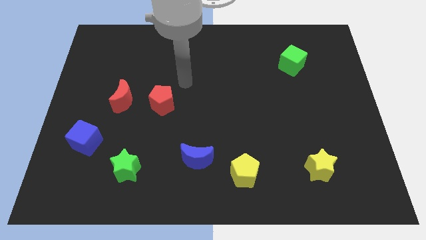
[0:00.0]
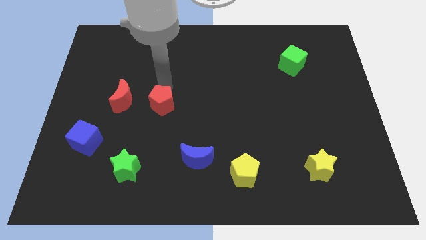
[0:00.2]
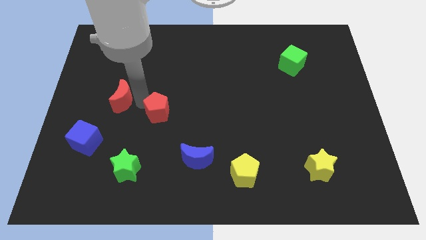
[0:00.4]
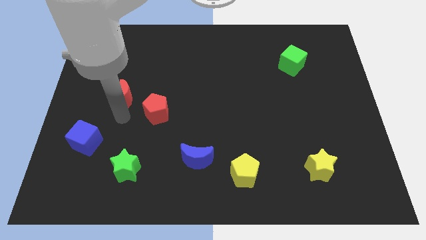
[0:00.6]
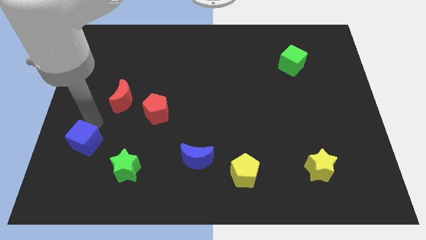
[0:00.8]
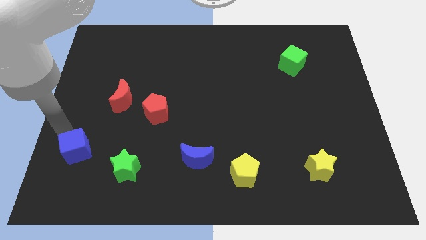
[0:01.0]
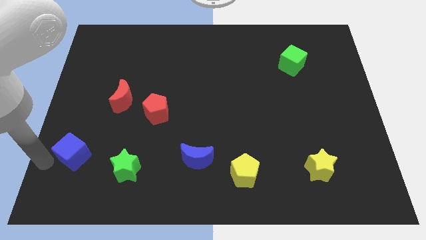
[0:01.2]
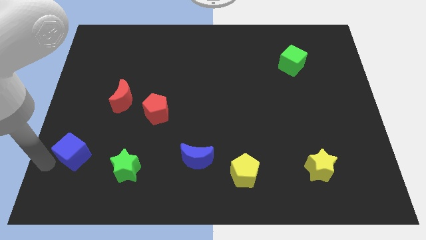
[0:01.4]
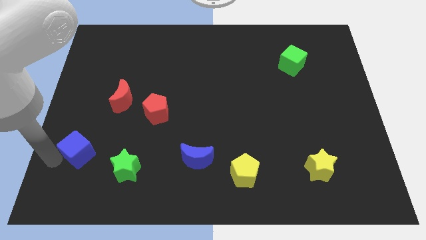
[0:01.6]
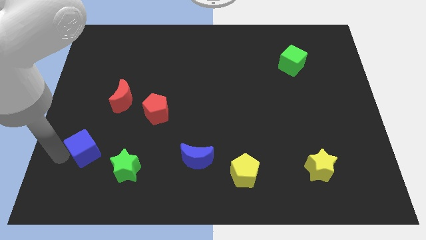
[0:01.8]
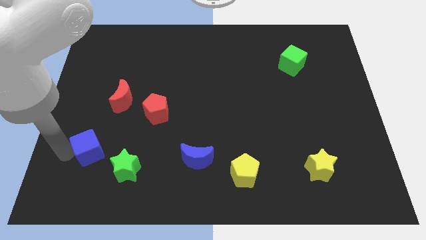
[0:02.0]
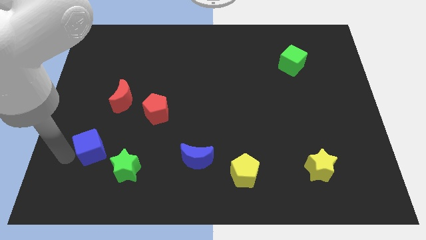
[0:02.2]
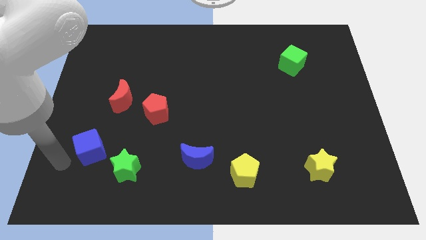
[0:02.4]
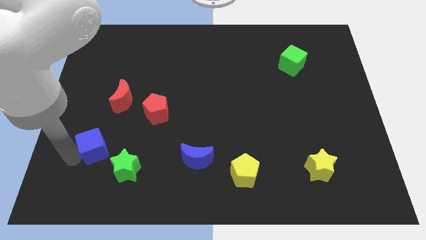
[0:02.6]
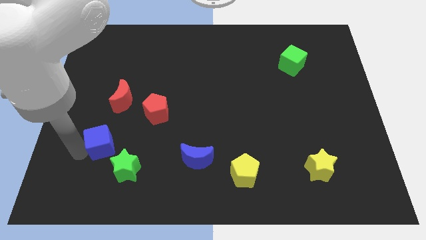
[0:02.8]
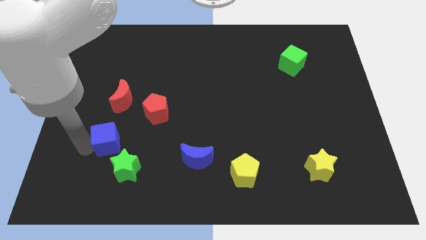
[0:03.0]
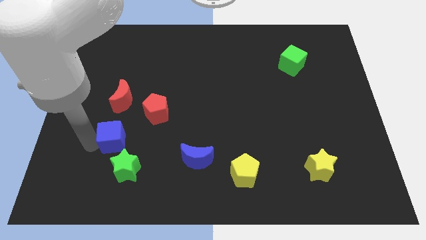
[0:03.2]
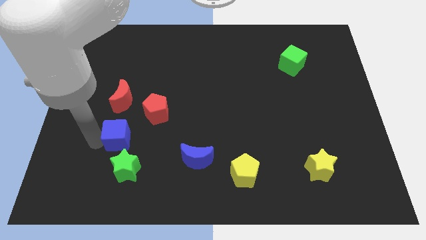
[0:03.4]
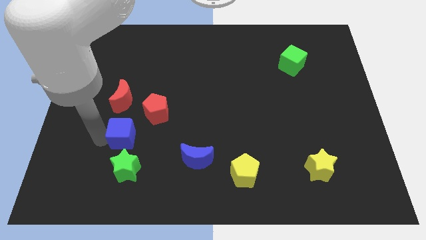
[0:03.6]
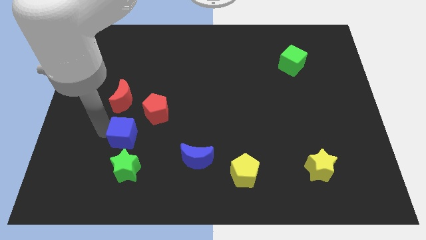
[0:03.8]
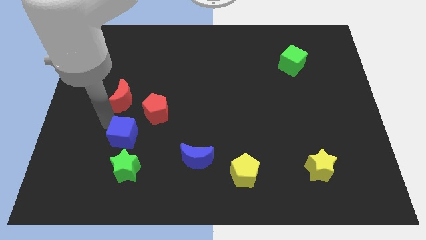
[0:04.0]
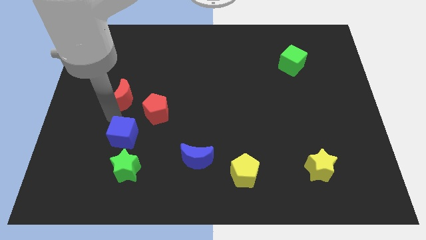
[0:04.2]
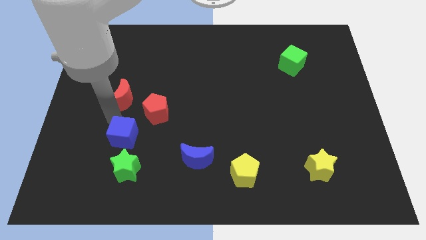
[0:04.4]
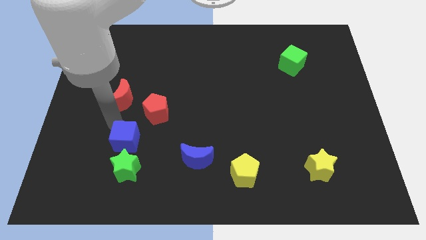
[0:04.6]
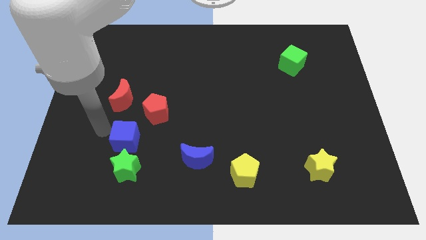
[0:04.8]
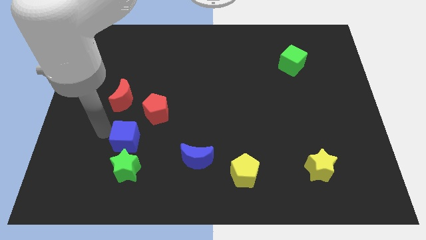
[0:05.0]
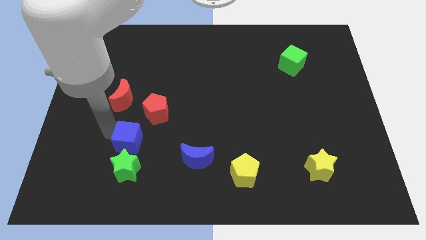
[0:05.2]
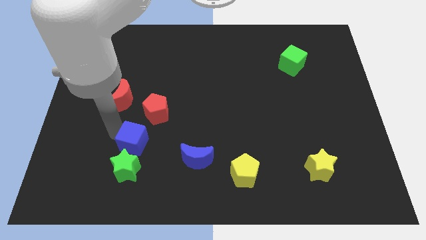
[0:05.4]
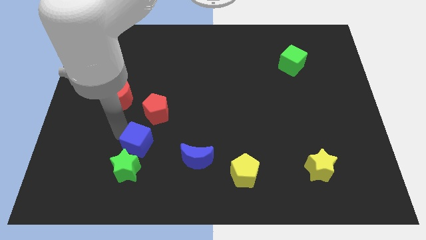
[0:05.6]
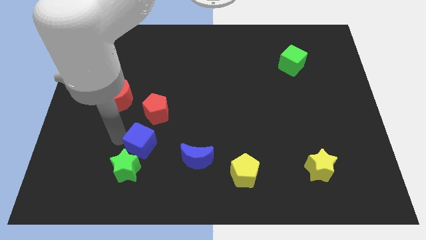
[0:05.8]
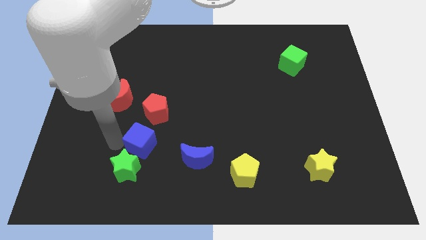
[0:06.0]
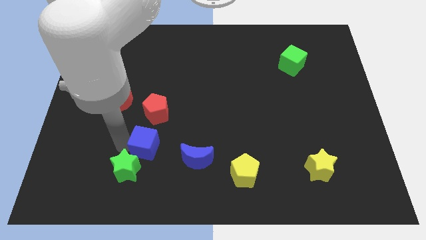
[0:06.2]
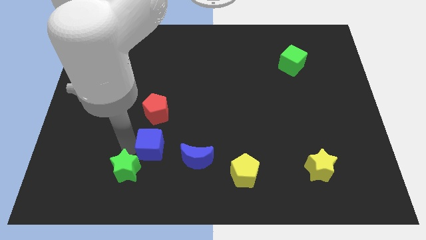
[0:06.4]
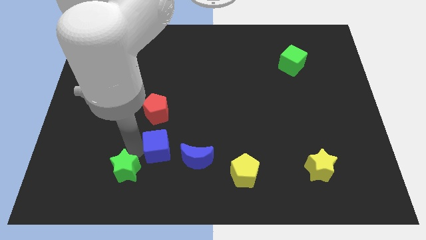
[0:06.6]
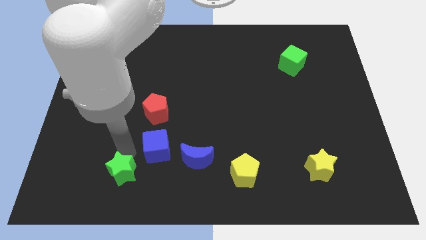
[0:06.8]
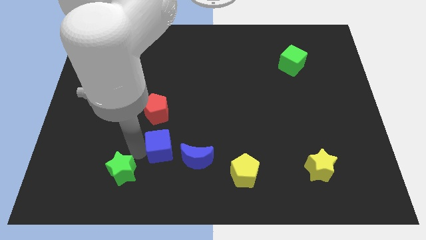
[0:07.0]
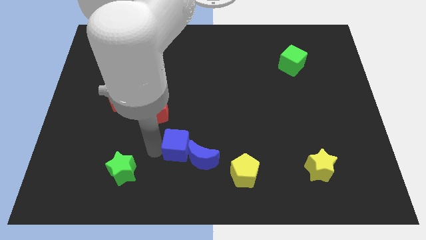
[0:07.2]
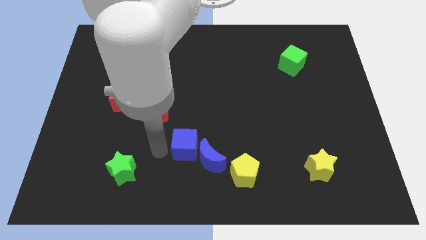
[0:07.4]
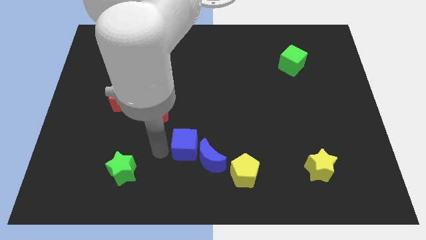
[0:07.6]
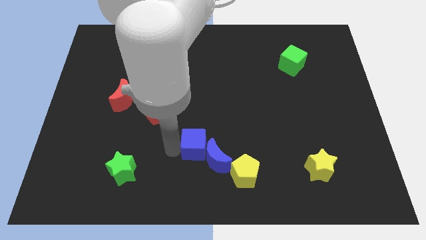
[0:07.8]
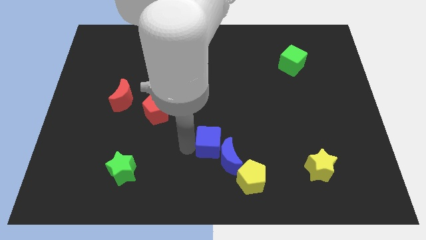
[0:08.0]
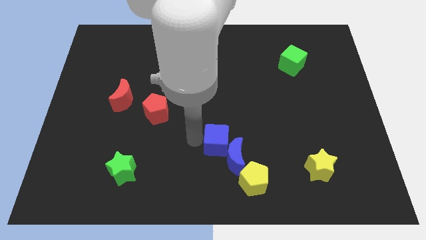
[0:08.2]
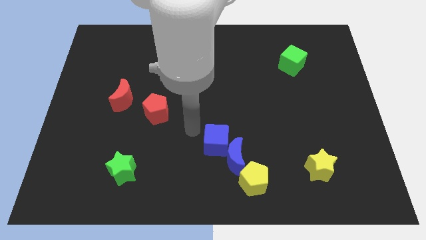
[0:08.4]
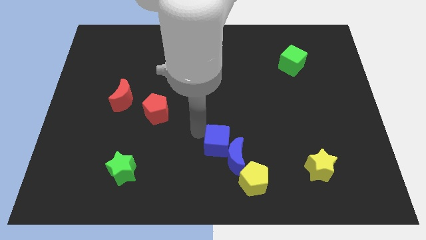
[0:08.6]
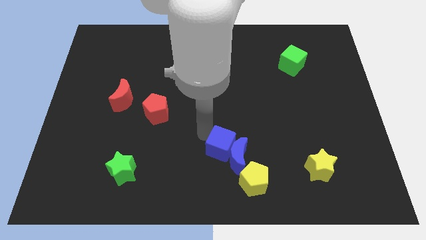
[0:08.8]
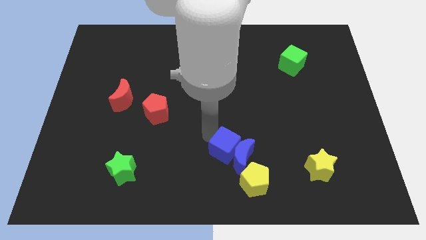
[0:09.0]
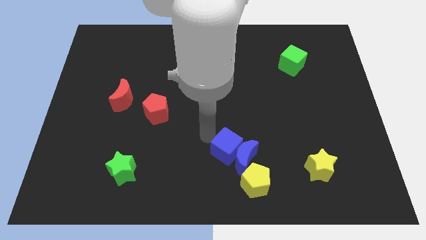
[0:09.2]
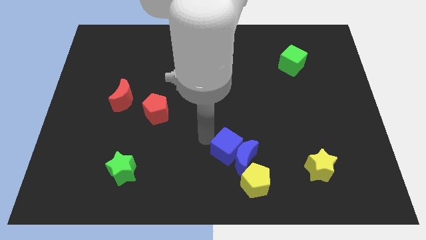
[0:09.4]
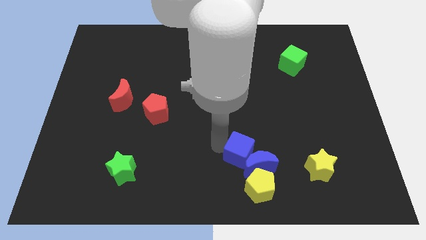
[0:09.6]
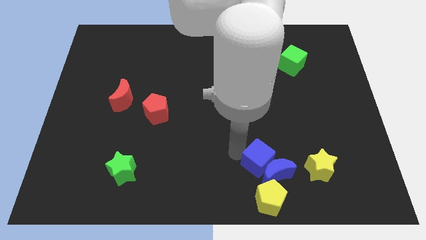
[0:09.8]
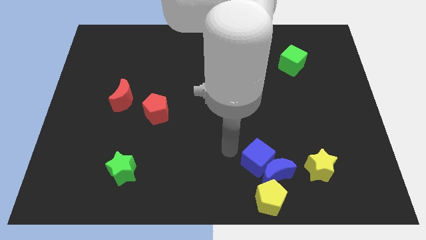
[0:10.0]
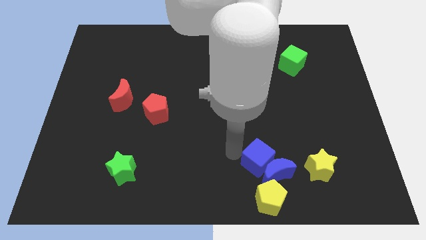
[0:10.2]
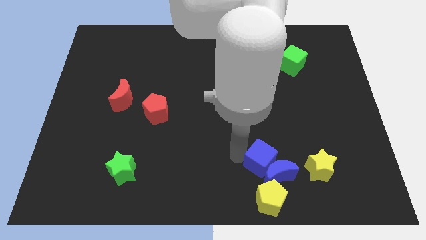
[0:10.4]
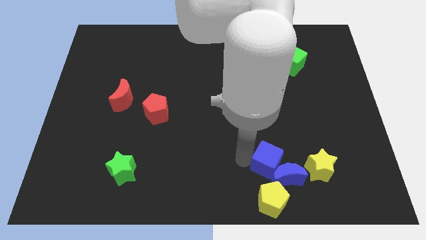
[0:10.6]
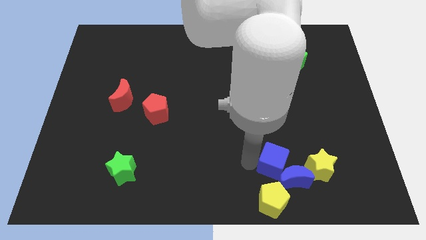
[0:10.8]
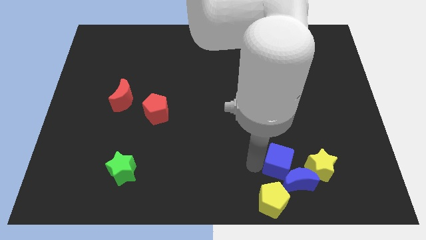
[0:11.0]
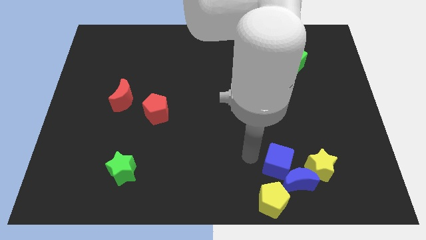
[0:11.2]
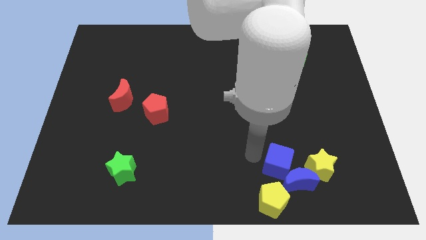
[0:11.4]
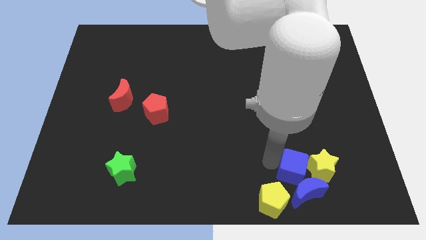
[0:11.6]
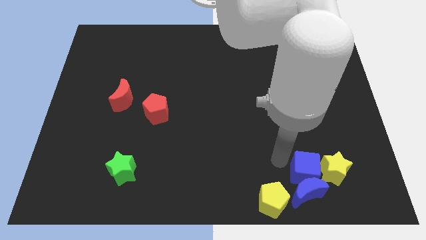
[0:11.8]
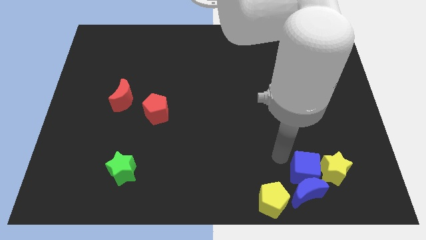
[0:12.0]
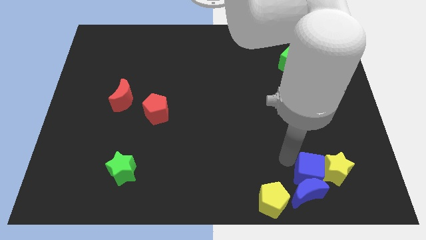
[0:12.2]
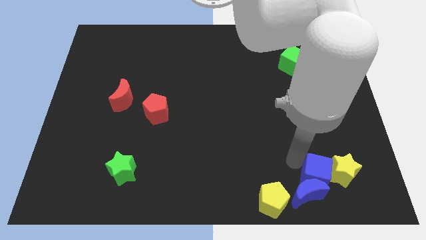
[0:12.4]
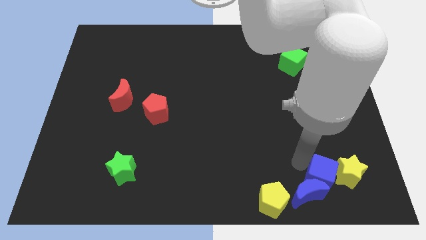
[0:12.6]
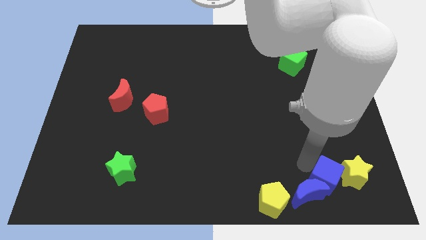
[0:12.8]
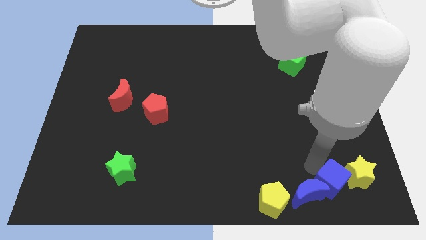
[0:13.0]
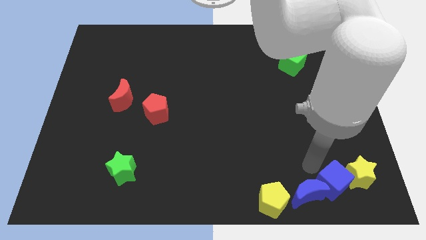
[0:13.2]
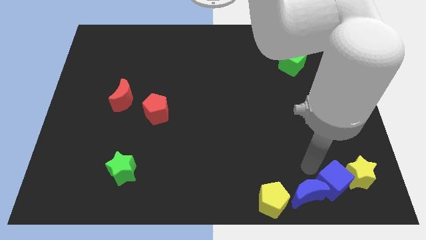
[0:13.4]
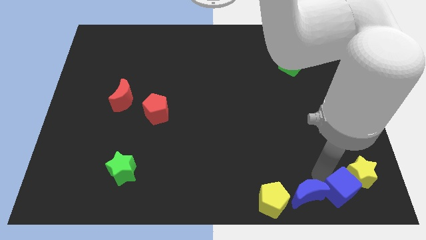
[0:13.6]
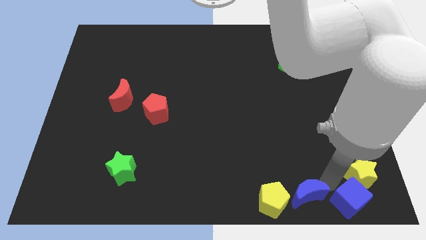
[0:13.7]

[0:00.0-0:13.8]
move the blue cube to the bottom right
